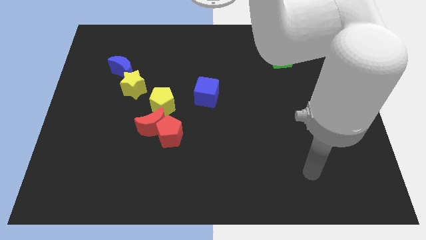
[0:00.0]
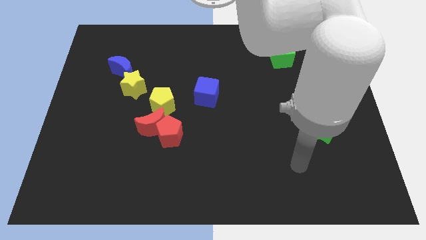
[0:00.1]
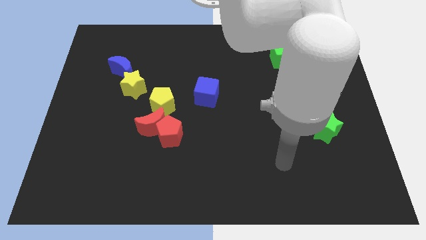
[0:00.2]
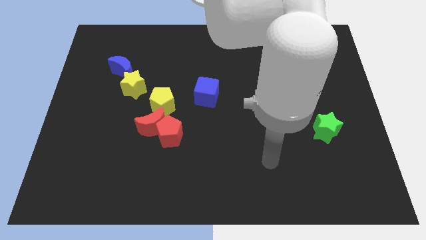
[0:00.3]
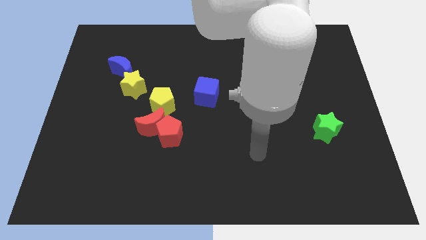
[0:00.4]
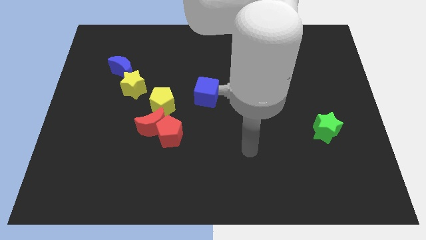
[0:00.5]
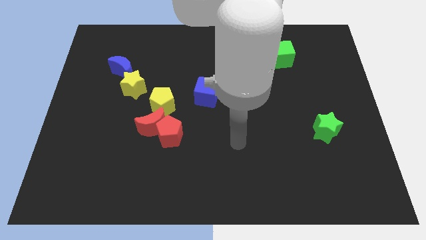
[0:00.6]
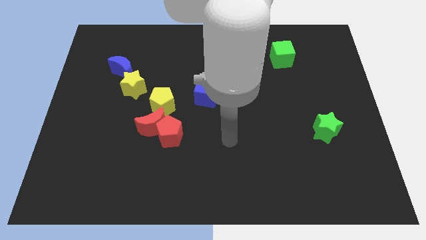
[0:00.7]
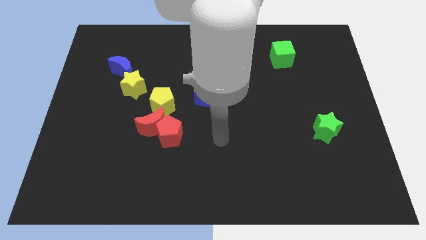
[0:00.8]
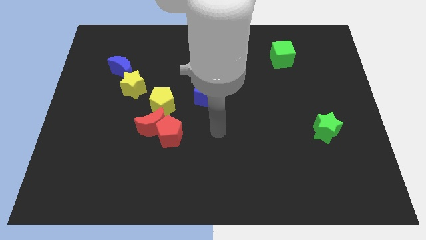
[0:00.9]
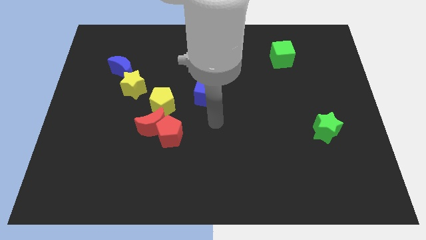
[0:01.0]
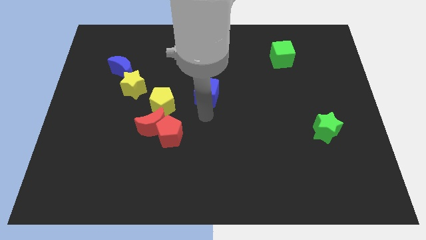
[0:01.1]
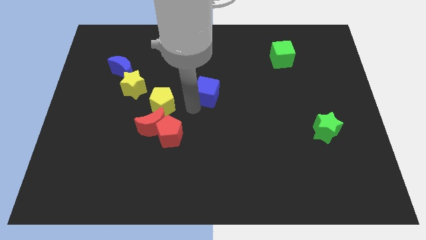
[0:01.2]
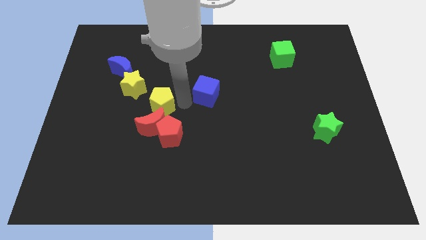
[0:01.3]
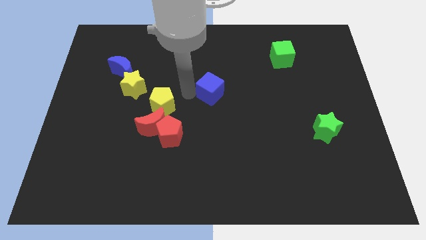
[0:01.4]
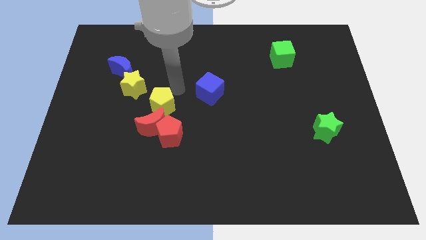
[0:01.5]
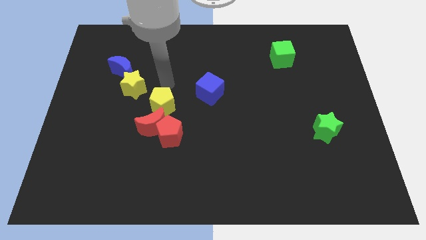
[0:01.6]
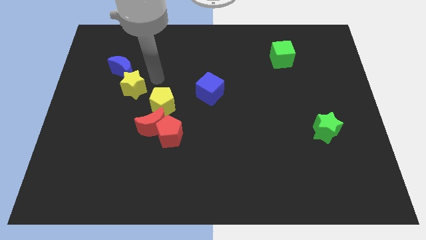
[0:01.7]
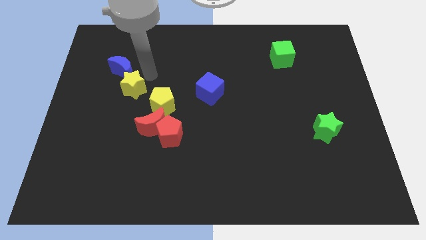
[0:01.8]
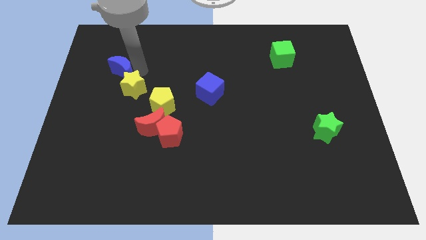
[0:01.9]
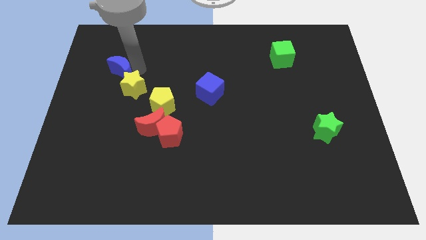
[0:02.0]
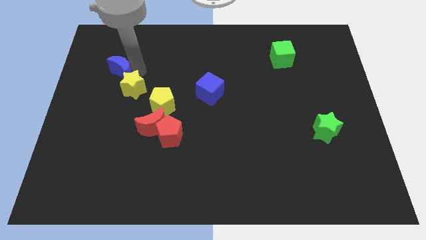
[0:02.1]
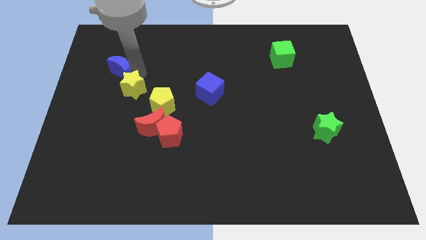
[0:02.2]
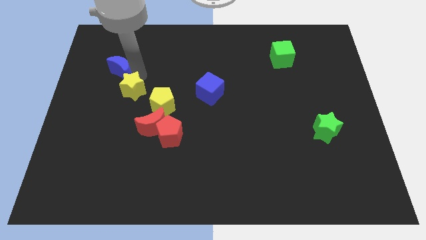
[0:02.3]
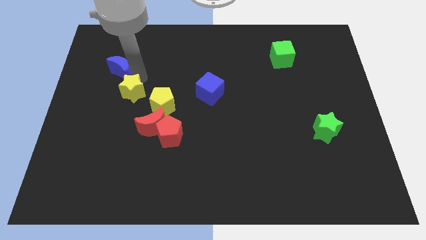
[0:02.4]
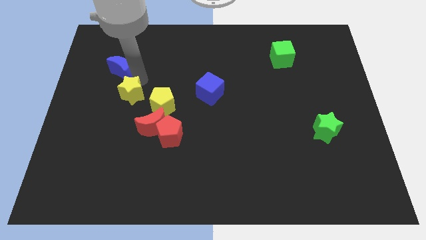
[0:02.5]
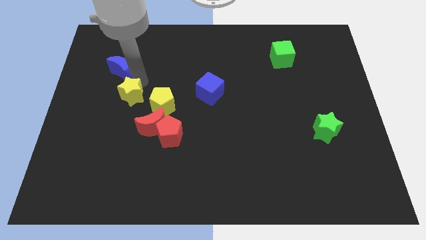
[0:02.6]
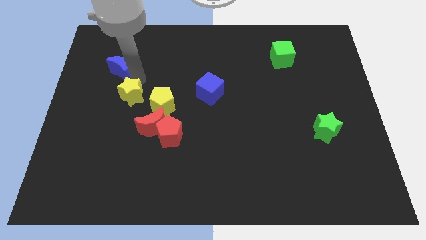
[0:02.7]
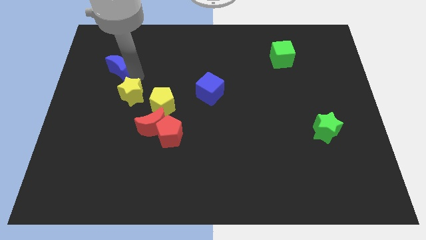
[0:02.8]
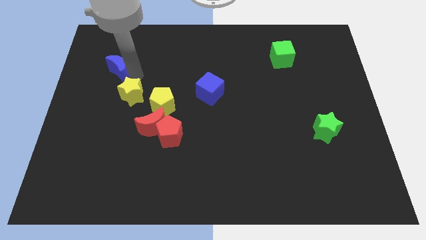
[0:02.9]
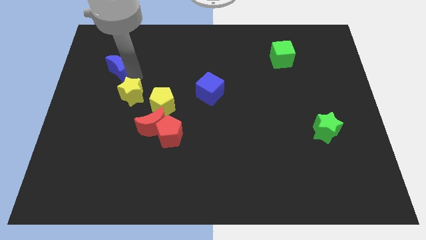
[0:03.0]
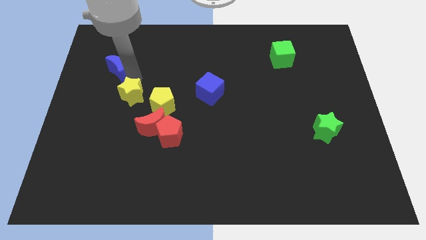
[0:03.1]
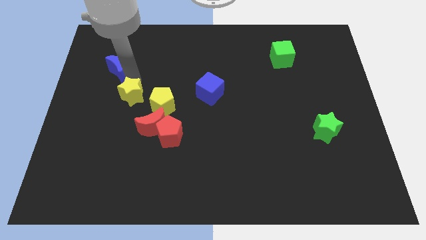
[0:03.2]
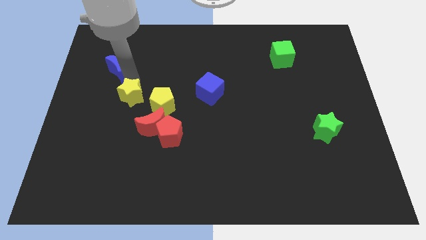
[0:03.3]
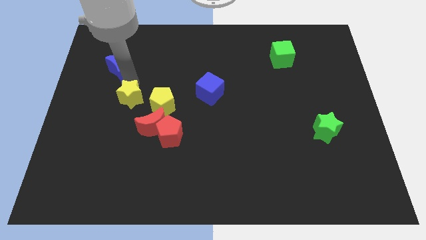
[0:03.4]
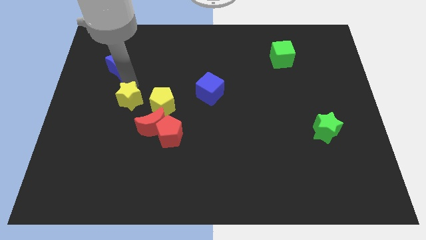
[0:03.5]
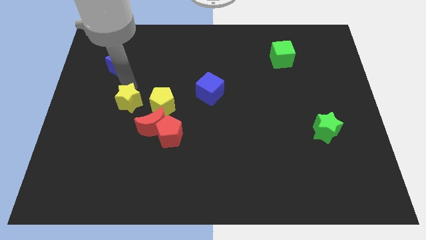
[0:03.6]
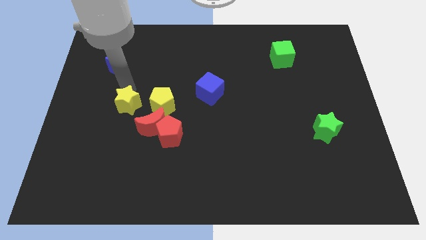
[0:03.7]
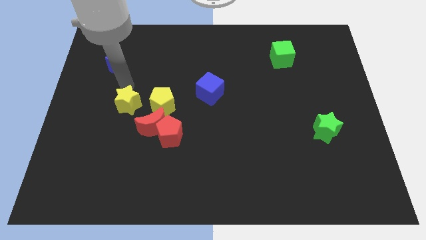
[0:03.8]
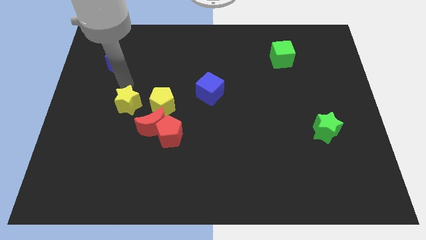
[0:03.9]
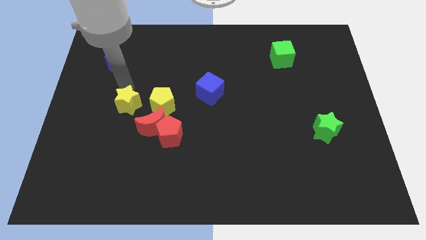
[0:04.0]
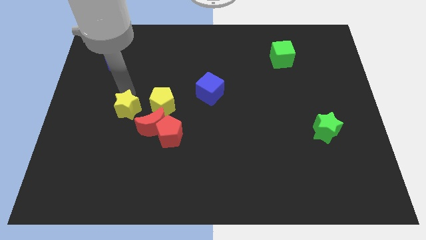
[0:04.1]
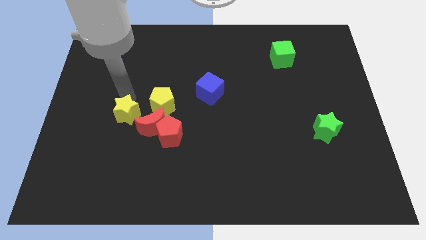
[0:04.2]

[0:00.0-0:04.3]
slightly move the yellow star down

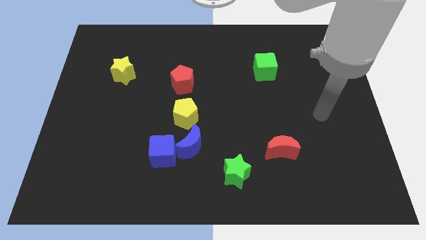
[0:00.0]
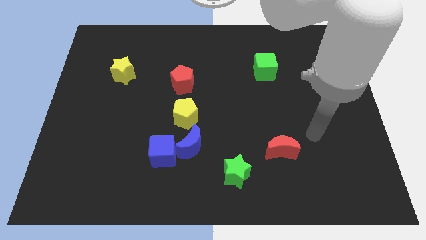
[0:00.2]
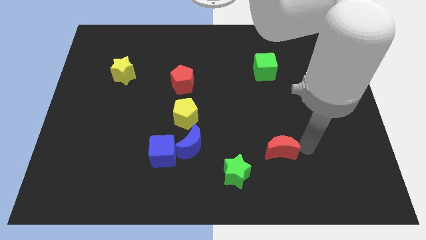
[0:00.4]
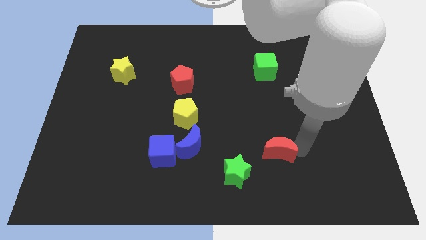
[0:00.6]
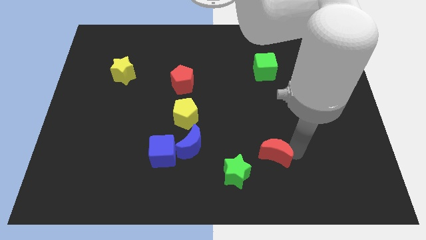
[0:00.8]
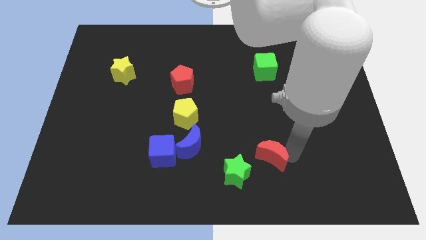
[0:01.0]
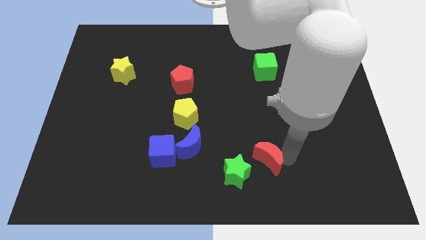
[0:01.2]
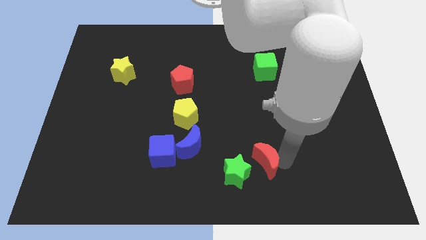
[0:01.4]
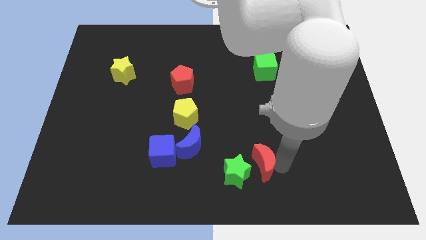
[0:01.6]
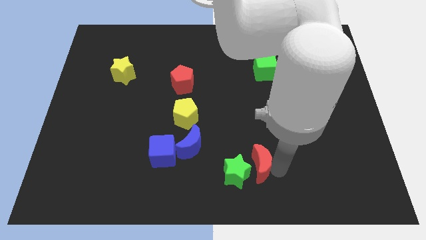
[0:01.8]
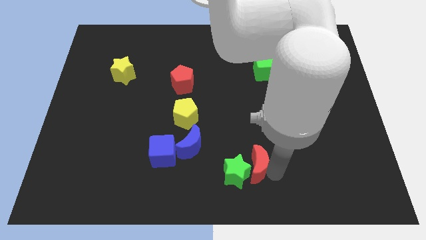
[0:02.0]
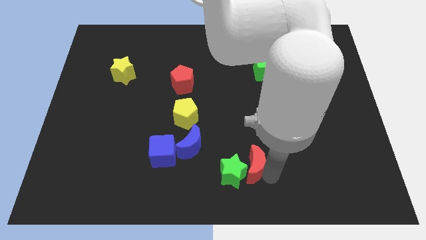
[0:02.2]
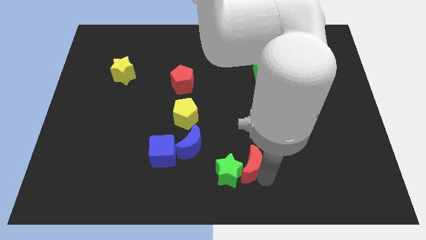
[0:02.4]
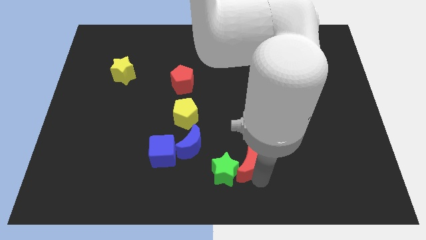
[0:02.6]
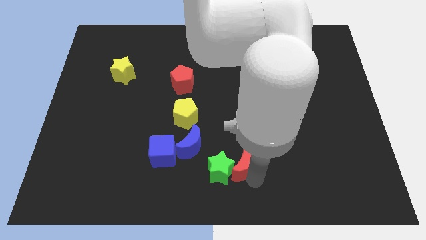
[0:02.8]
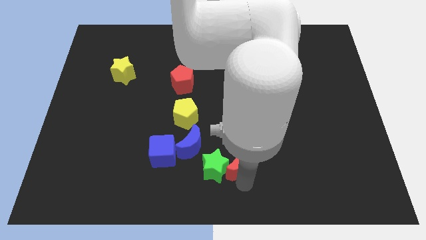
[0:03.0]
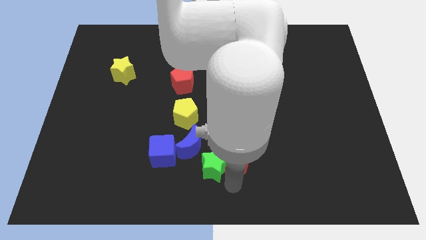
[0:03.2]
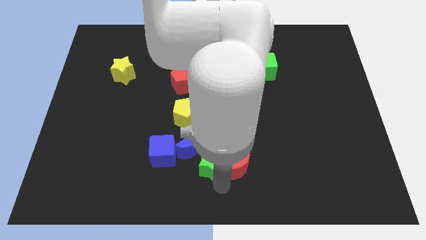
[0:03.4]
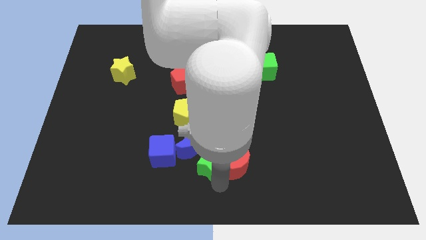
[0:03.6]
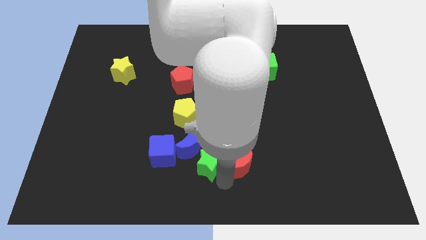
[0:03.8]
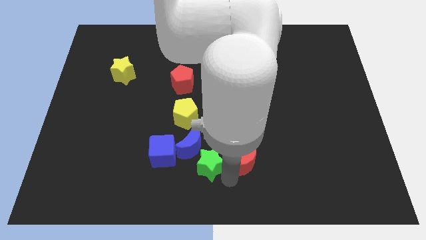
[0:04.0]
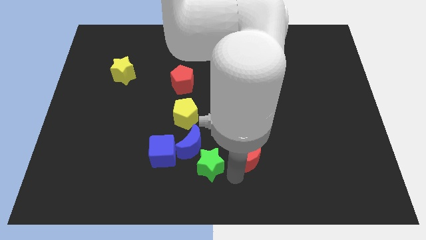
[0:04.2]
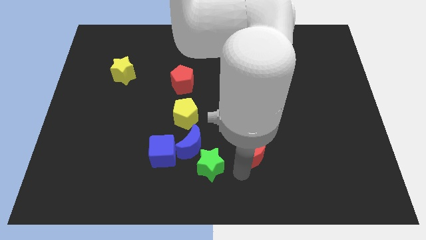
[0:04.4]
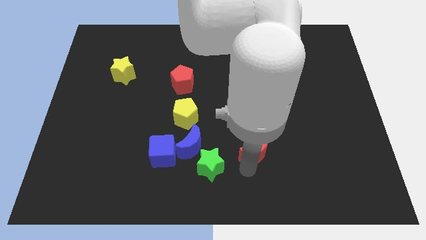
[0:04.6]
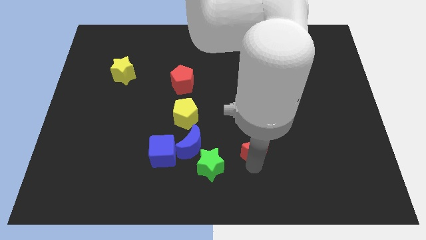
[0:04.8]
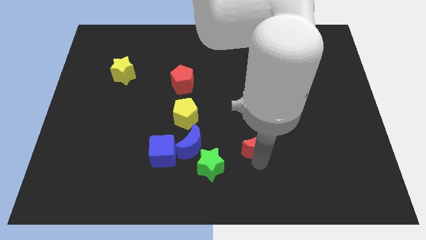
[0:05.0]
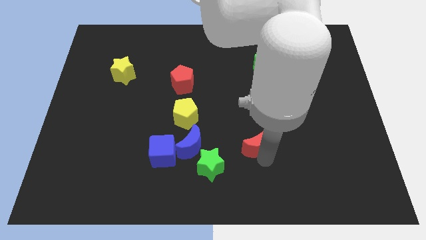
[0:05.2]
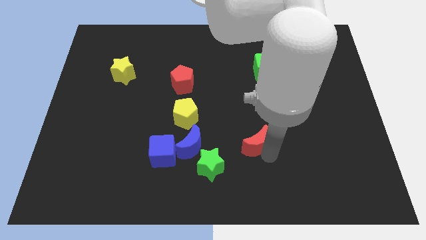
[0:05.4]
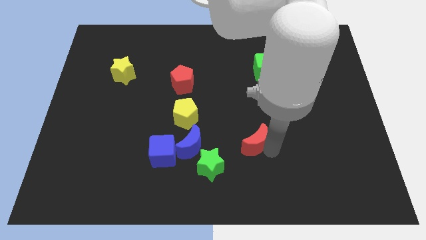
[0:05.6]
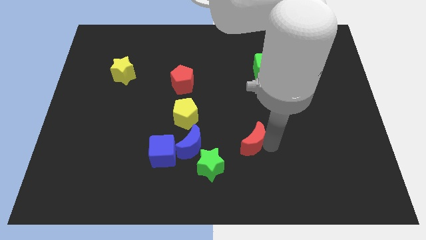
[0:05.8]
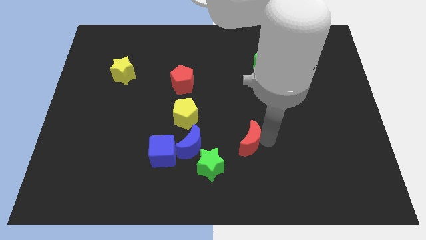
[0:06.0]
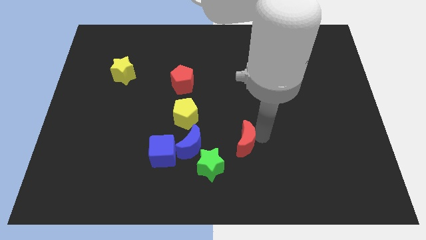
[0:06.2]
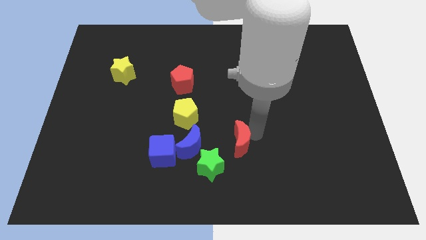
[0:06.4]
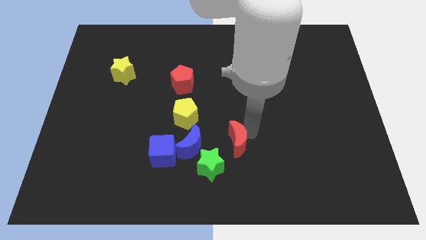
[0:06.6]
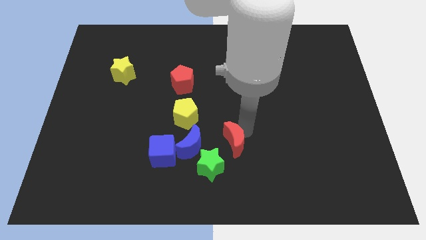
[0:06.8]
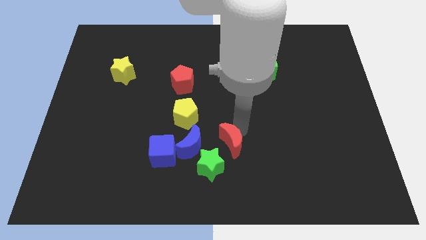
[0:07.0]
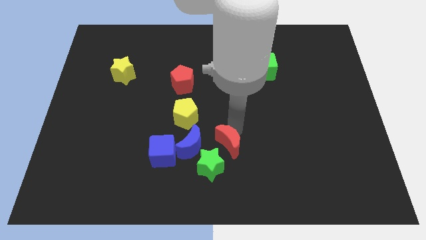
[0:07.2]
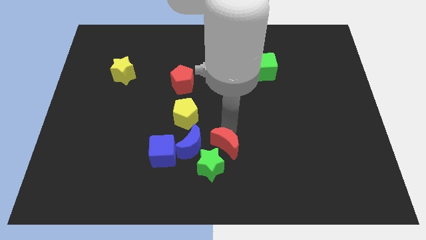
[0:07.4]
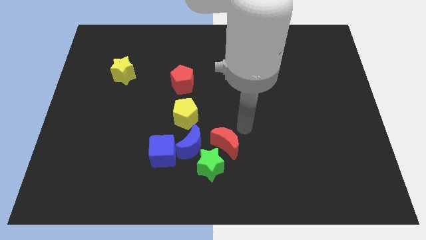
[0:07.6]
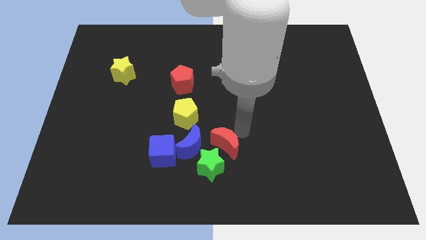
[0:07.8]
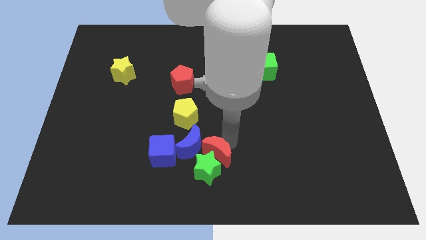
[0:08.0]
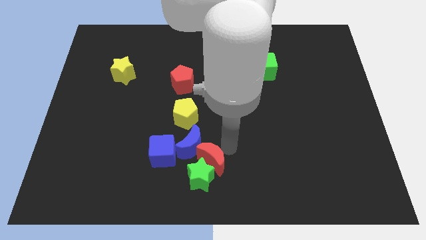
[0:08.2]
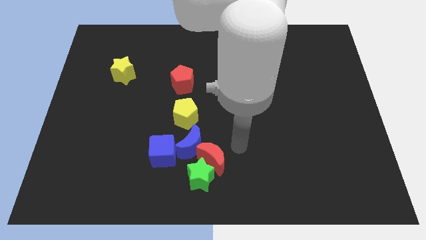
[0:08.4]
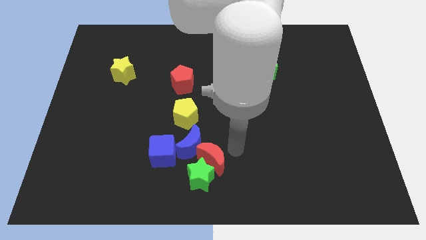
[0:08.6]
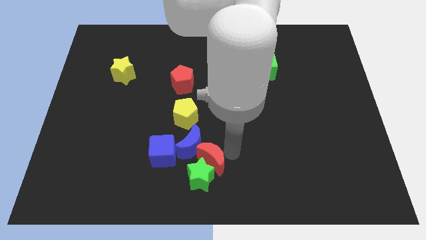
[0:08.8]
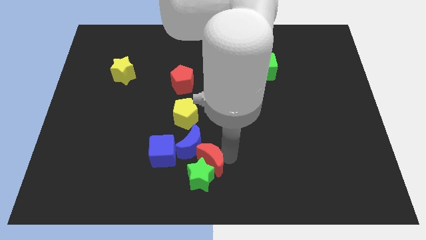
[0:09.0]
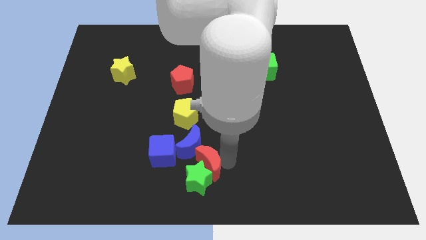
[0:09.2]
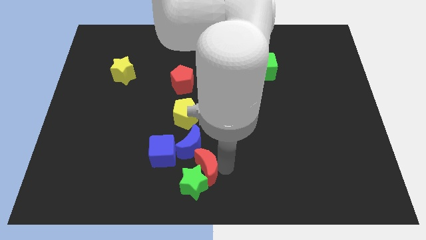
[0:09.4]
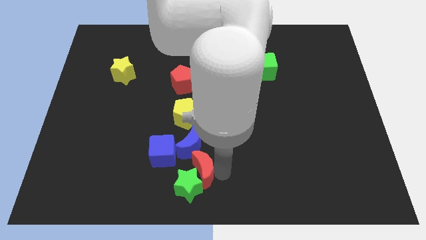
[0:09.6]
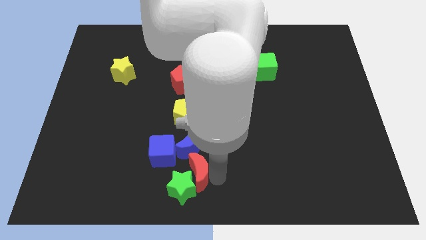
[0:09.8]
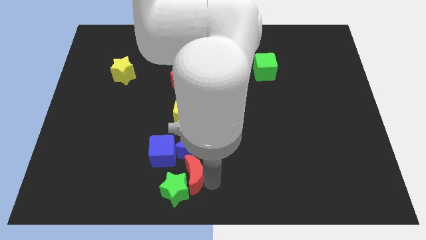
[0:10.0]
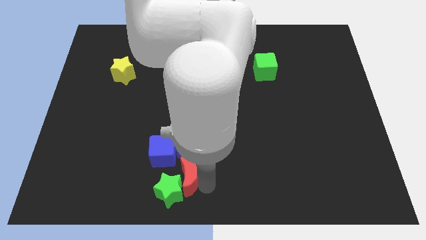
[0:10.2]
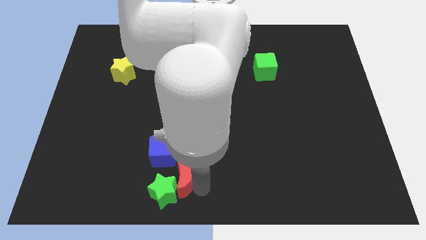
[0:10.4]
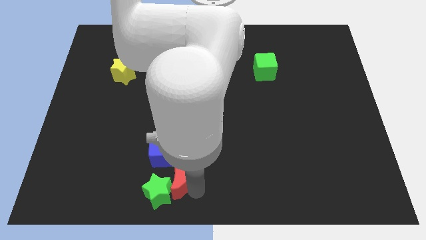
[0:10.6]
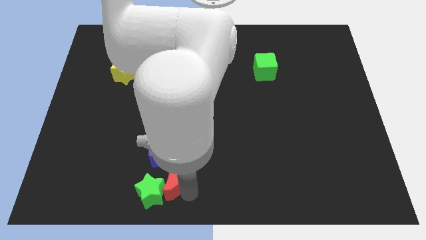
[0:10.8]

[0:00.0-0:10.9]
push the red moon to the left
